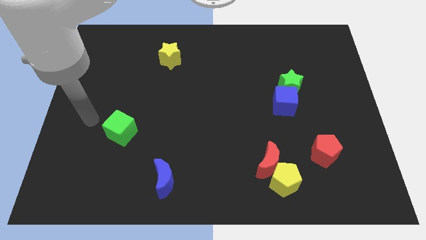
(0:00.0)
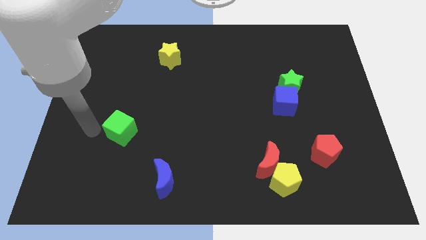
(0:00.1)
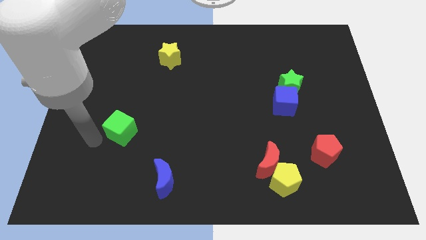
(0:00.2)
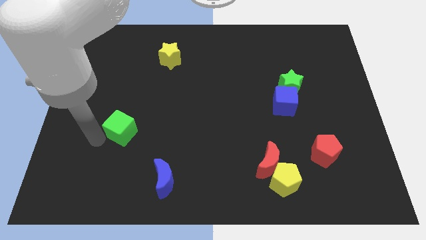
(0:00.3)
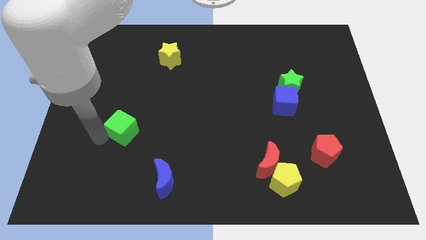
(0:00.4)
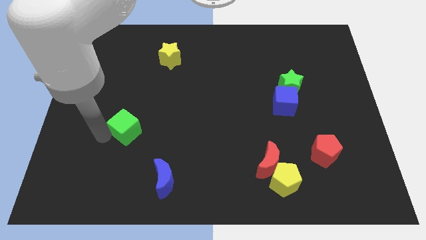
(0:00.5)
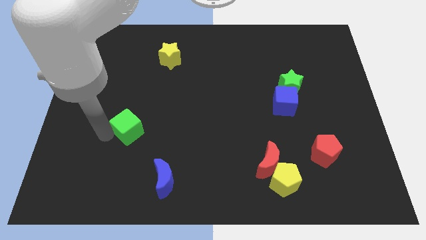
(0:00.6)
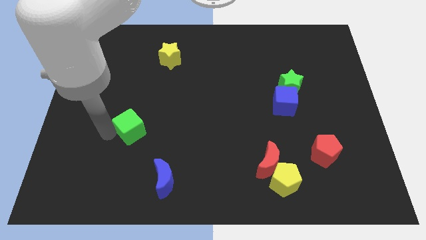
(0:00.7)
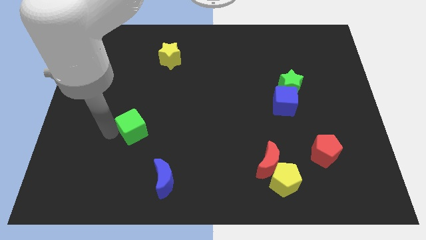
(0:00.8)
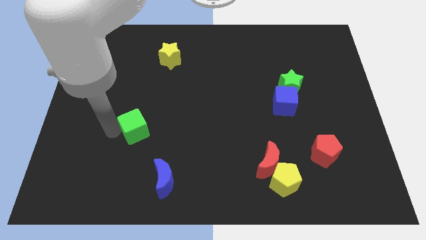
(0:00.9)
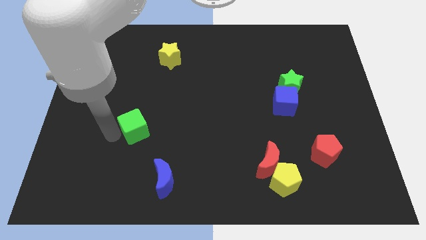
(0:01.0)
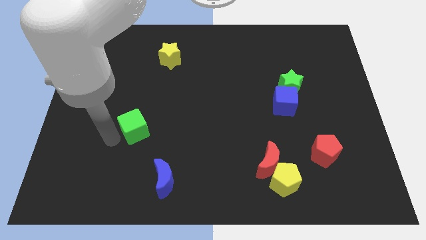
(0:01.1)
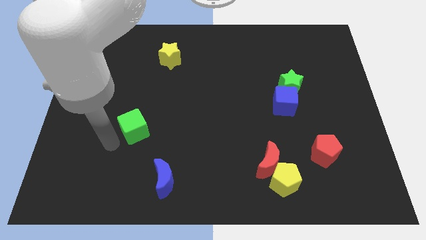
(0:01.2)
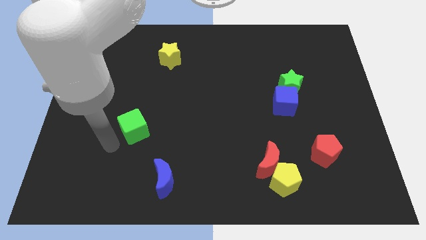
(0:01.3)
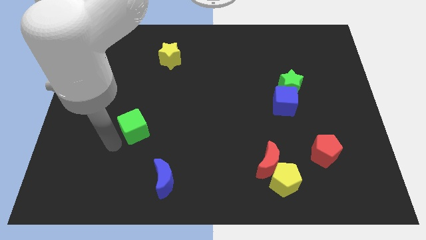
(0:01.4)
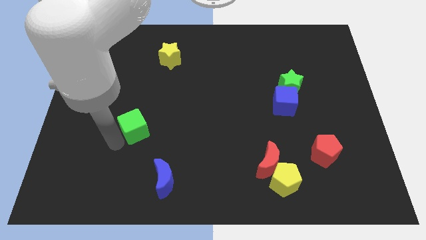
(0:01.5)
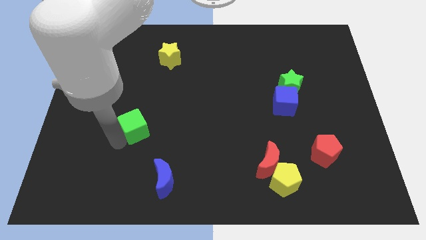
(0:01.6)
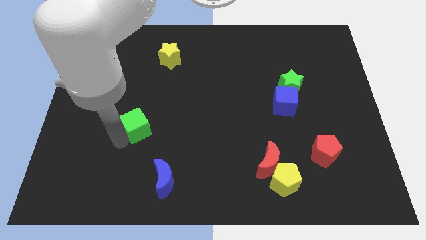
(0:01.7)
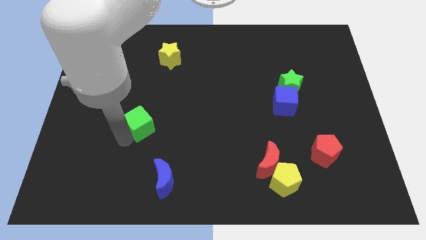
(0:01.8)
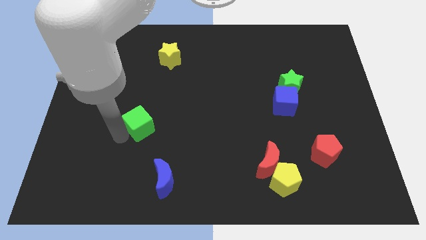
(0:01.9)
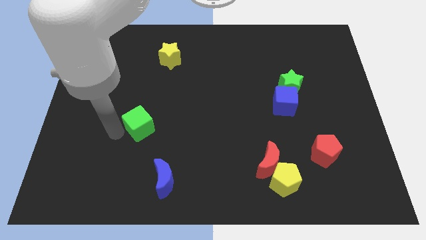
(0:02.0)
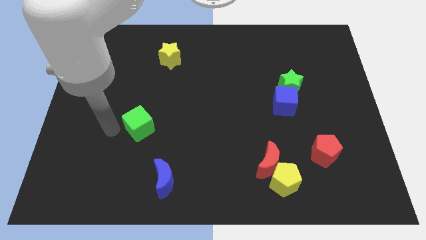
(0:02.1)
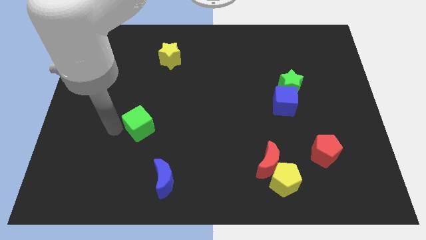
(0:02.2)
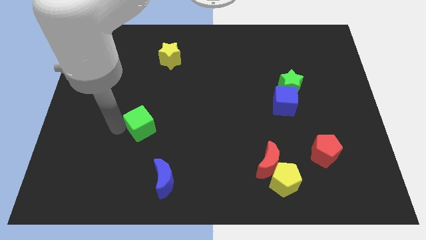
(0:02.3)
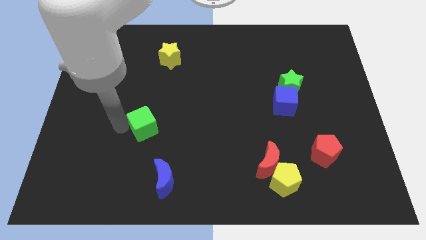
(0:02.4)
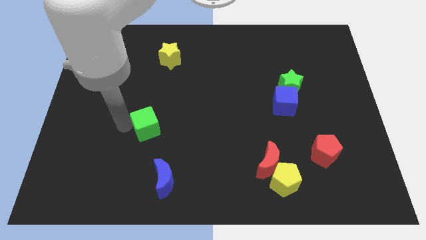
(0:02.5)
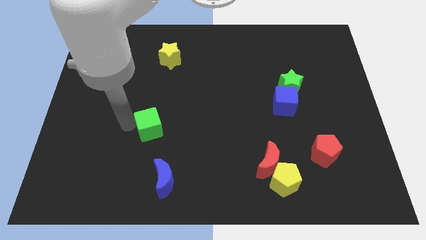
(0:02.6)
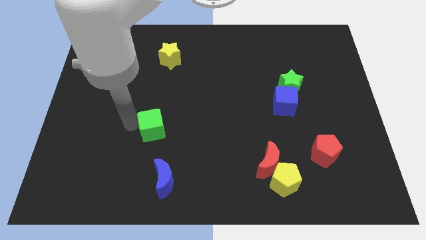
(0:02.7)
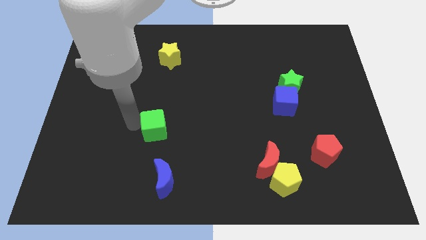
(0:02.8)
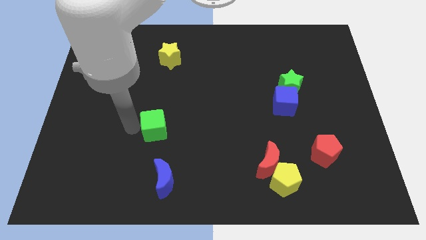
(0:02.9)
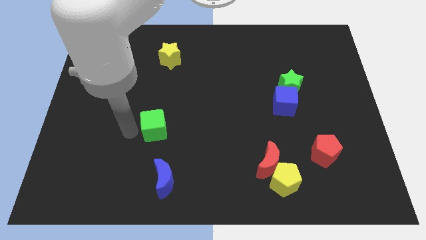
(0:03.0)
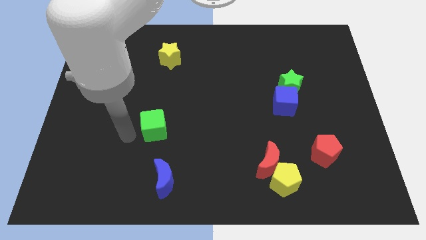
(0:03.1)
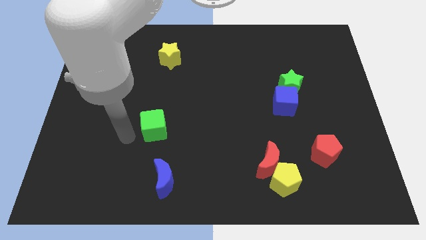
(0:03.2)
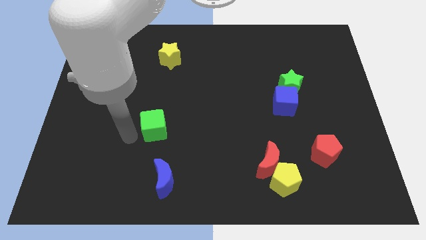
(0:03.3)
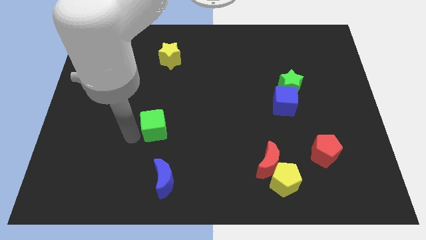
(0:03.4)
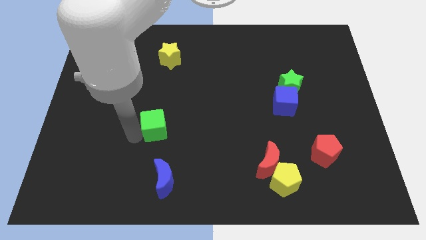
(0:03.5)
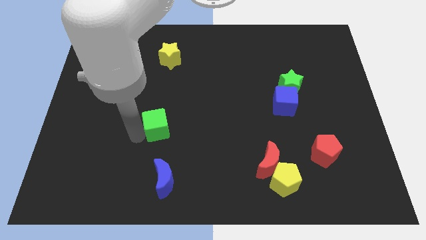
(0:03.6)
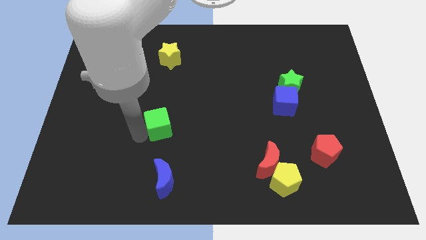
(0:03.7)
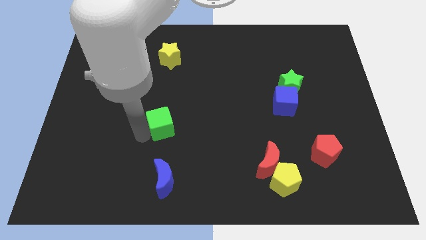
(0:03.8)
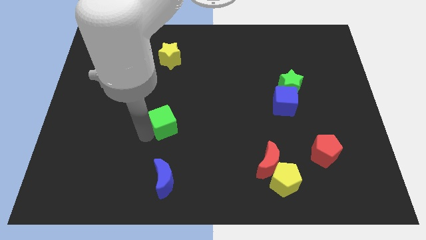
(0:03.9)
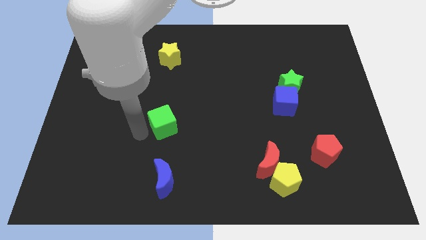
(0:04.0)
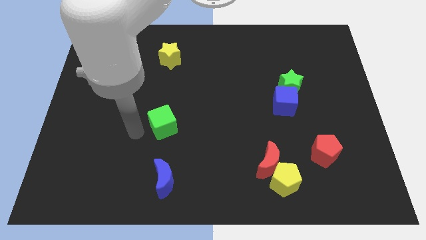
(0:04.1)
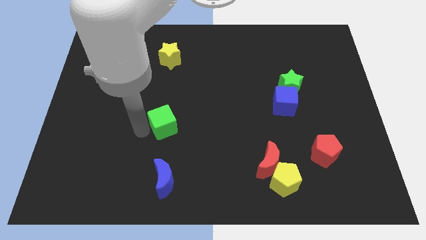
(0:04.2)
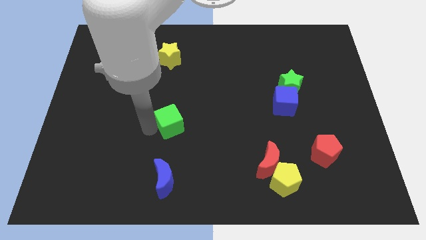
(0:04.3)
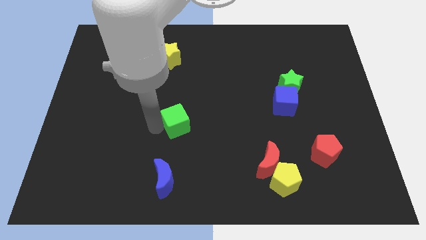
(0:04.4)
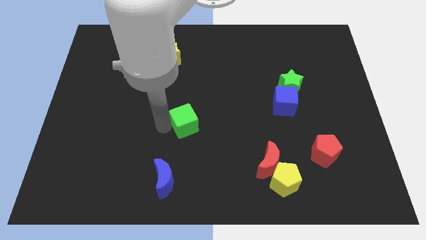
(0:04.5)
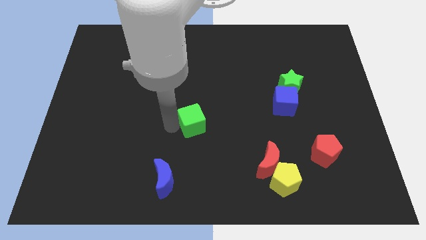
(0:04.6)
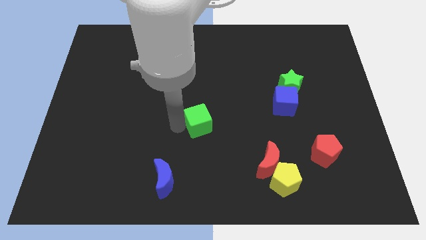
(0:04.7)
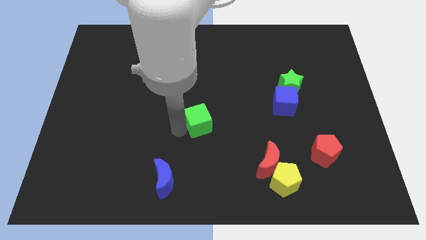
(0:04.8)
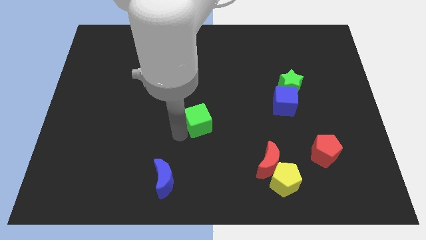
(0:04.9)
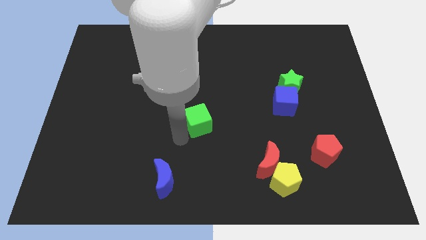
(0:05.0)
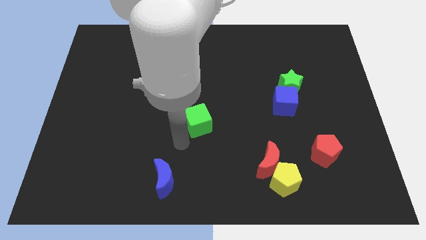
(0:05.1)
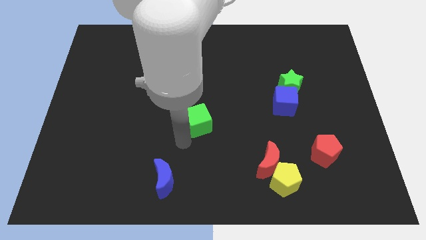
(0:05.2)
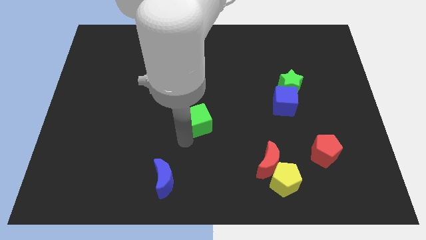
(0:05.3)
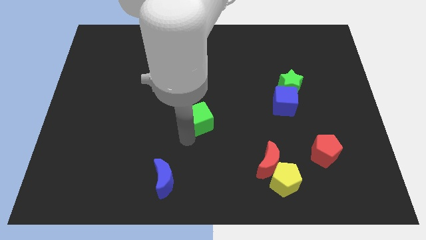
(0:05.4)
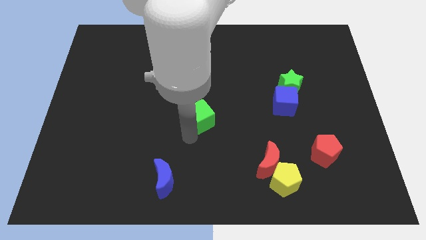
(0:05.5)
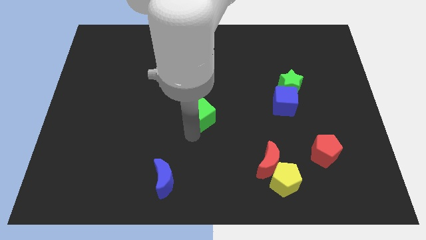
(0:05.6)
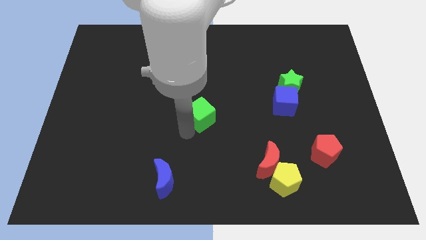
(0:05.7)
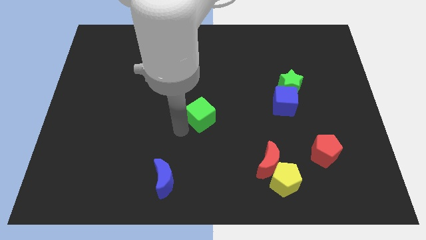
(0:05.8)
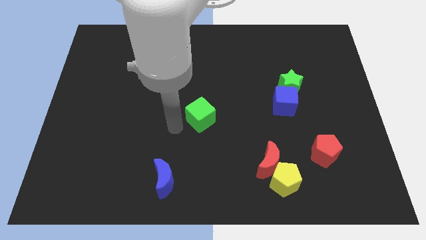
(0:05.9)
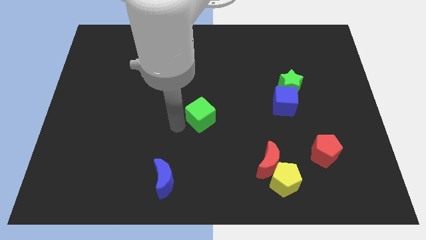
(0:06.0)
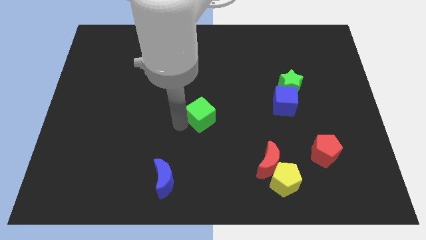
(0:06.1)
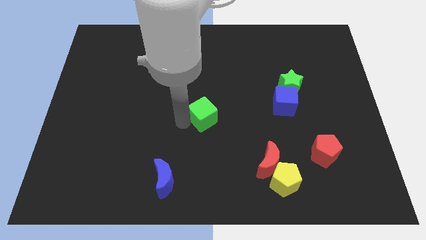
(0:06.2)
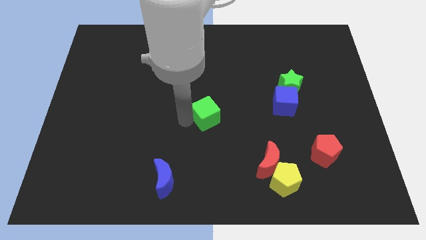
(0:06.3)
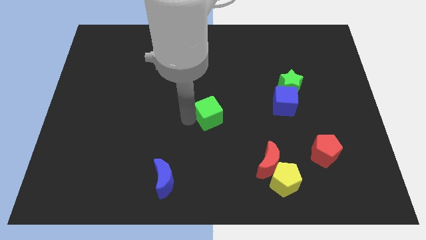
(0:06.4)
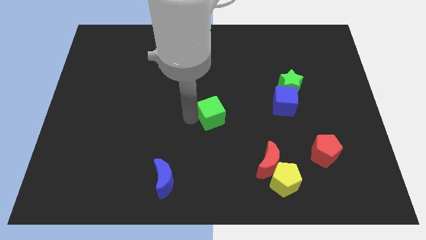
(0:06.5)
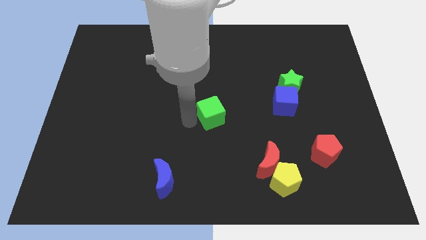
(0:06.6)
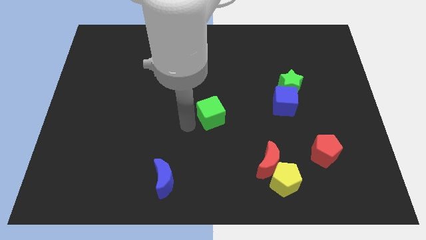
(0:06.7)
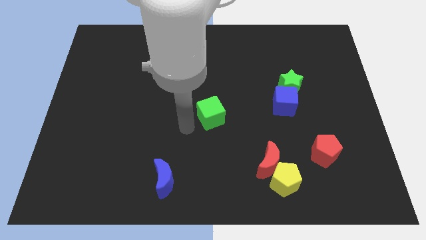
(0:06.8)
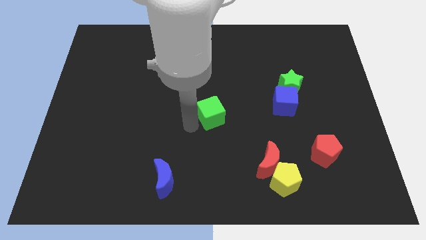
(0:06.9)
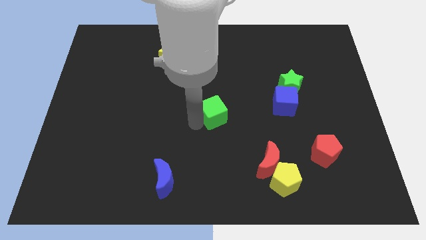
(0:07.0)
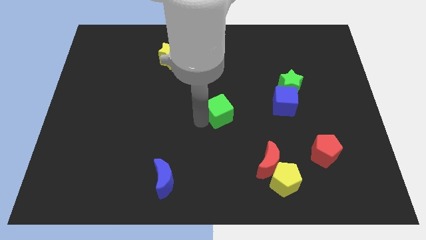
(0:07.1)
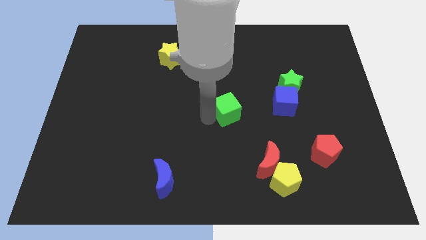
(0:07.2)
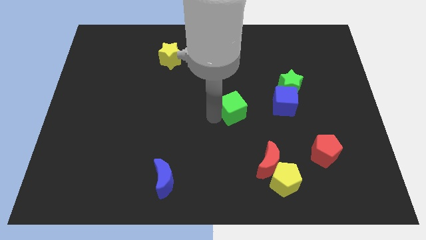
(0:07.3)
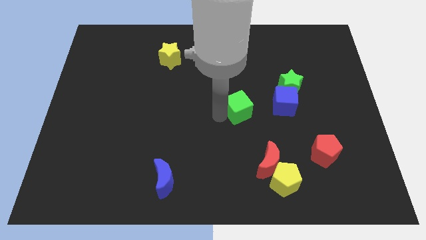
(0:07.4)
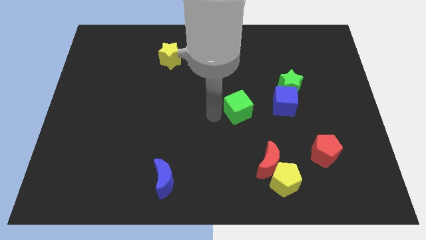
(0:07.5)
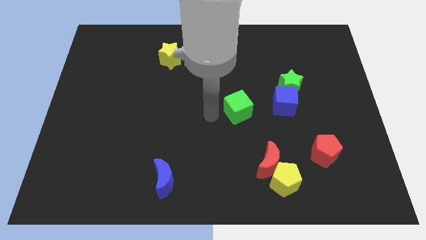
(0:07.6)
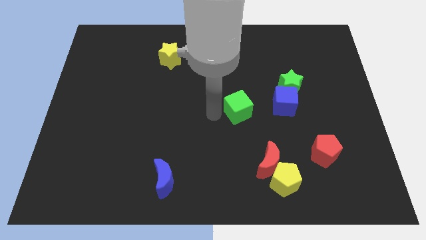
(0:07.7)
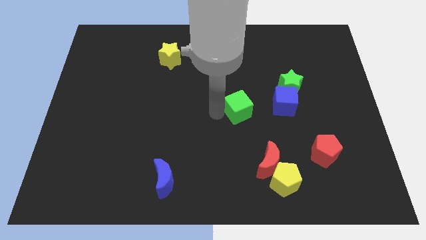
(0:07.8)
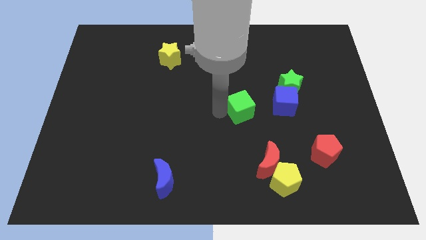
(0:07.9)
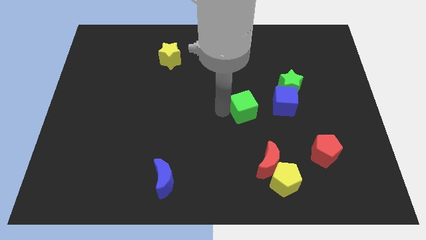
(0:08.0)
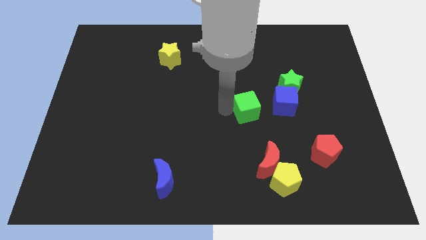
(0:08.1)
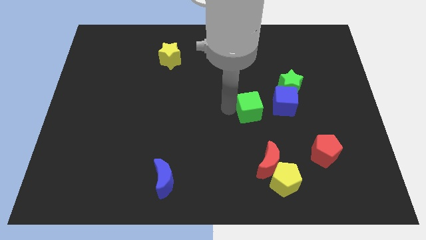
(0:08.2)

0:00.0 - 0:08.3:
slide the green cube to the bottom left of the green star
